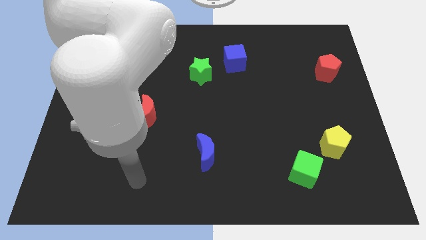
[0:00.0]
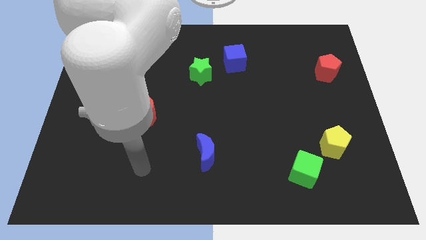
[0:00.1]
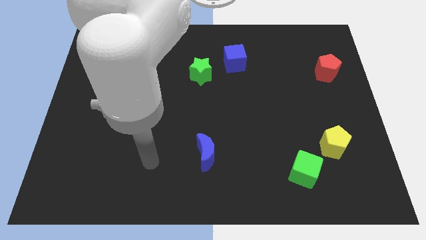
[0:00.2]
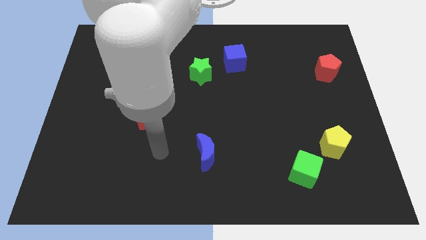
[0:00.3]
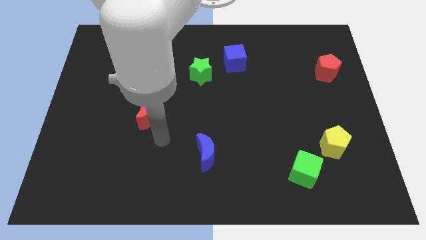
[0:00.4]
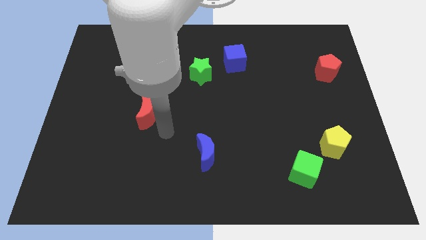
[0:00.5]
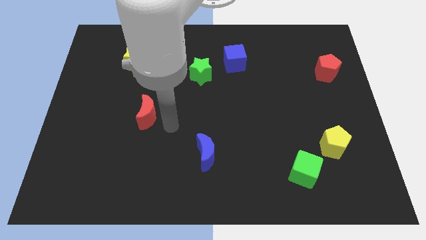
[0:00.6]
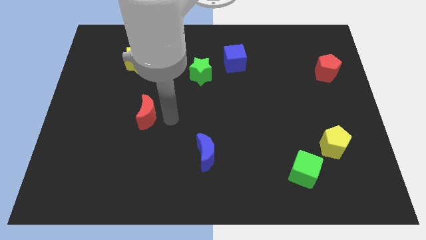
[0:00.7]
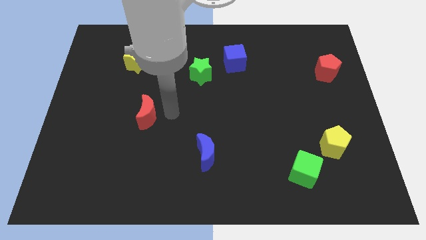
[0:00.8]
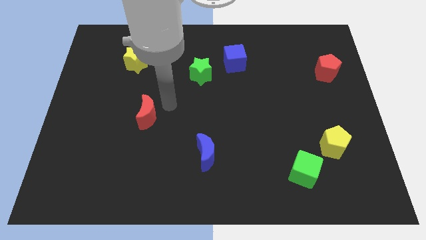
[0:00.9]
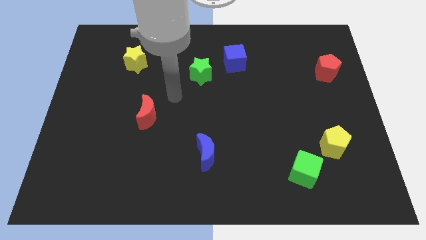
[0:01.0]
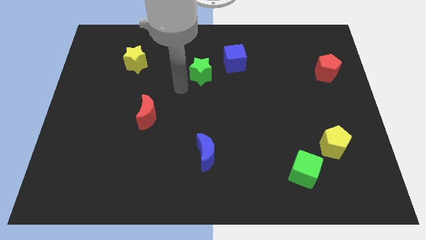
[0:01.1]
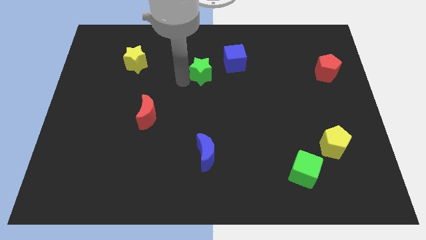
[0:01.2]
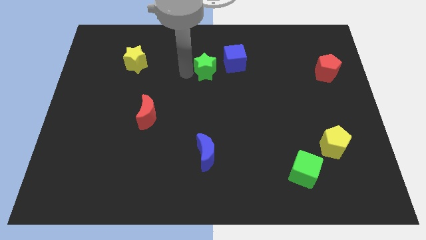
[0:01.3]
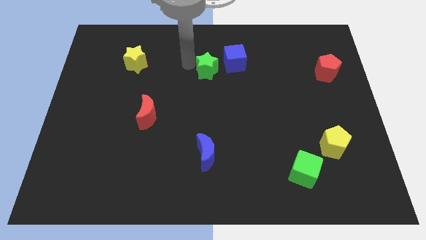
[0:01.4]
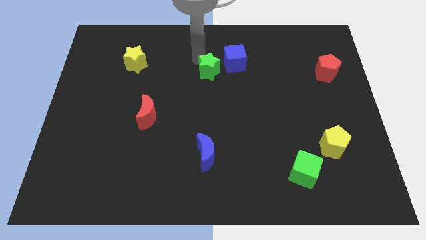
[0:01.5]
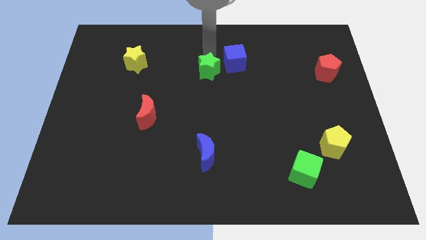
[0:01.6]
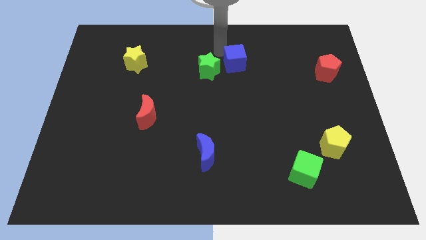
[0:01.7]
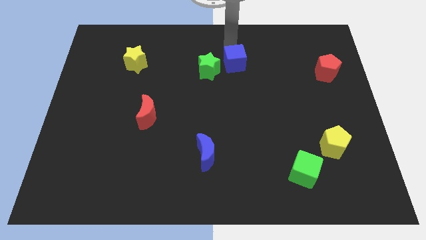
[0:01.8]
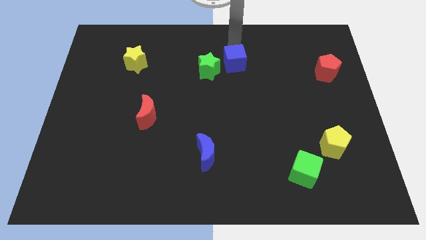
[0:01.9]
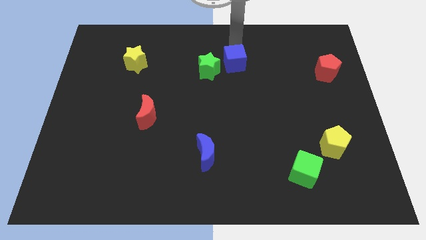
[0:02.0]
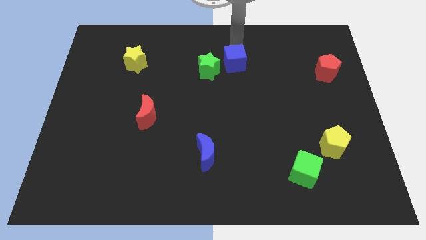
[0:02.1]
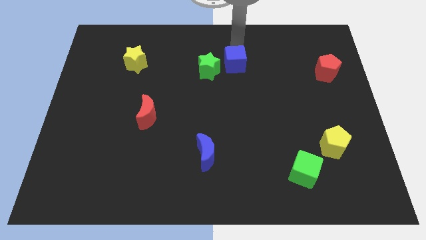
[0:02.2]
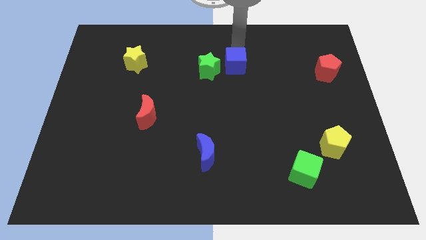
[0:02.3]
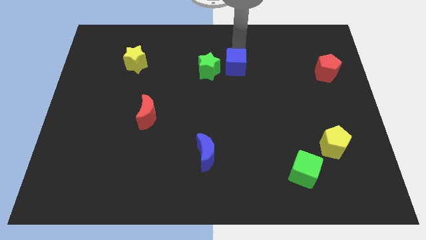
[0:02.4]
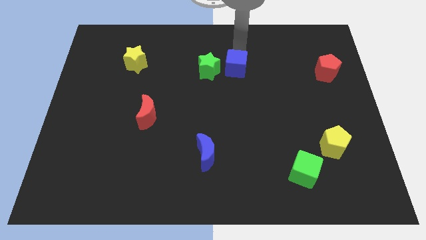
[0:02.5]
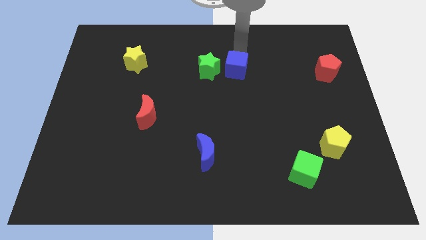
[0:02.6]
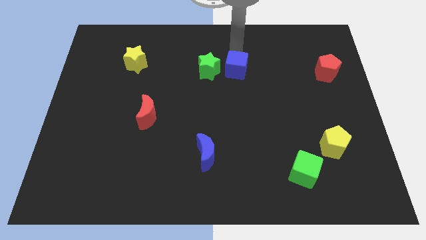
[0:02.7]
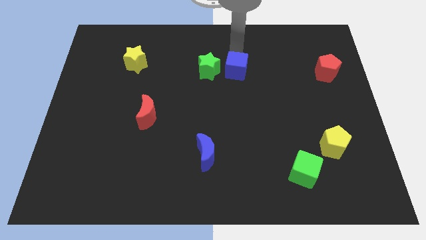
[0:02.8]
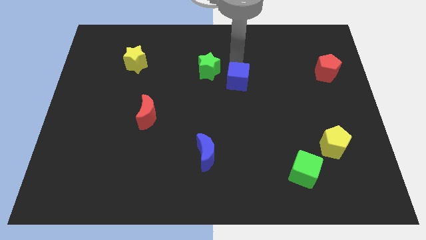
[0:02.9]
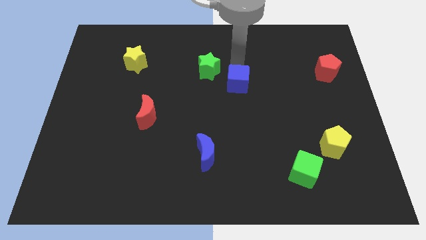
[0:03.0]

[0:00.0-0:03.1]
slightly move the blue cube down

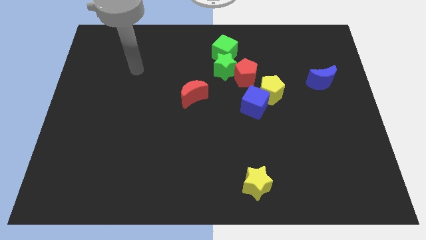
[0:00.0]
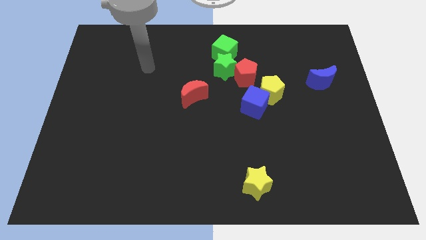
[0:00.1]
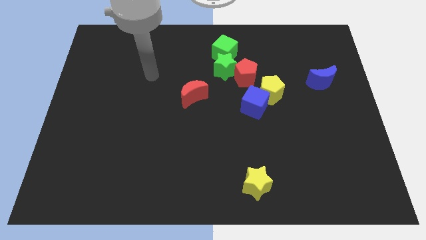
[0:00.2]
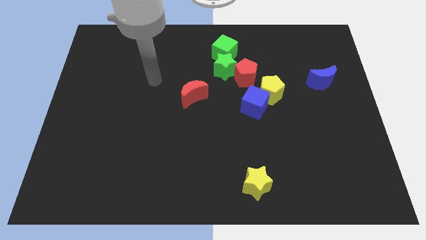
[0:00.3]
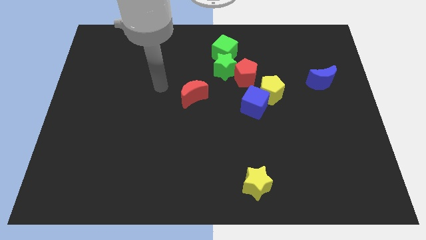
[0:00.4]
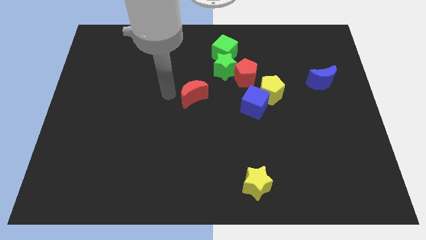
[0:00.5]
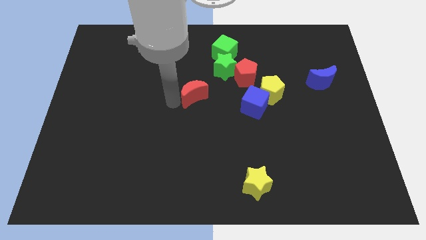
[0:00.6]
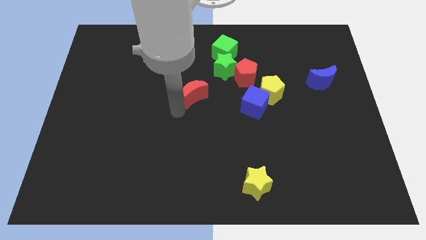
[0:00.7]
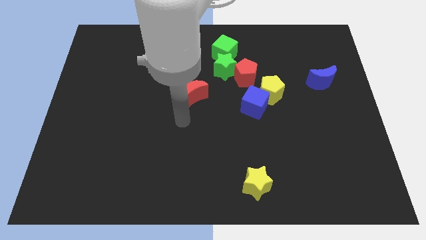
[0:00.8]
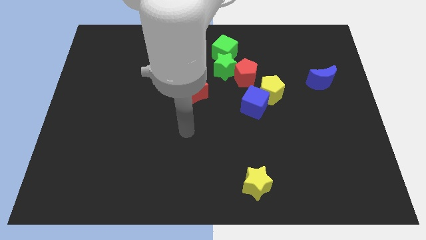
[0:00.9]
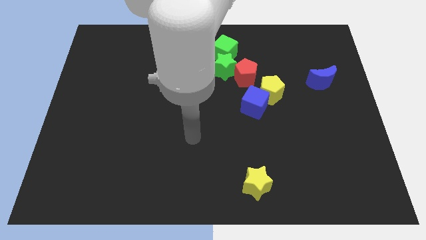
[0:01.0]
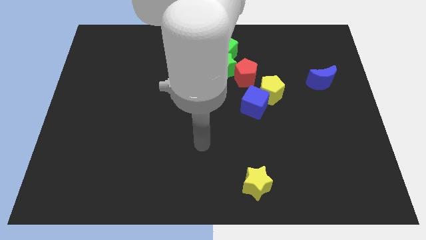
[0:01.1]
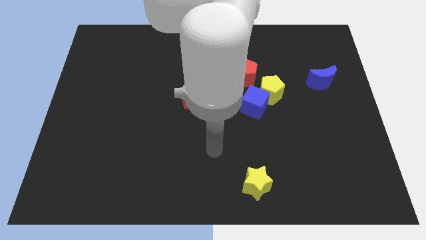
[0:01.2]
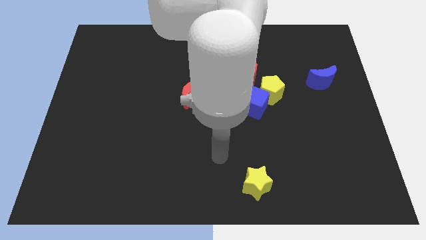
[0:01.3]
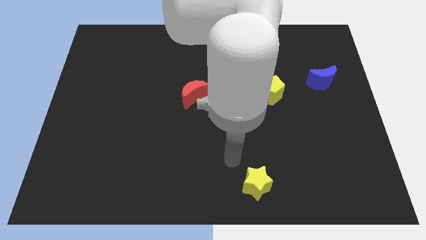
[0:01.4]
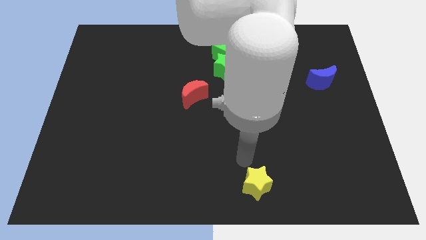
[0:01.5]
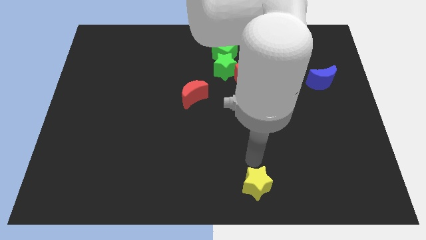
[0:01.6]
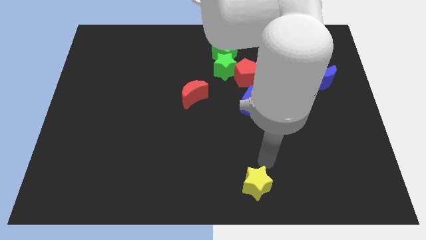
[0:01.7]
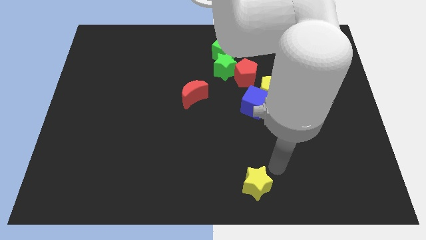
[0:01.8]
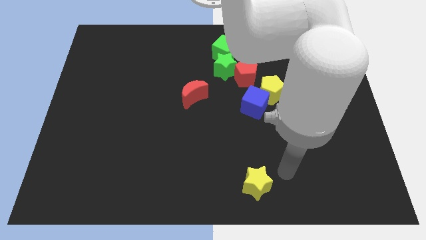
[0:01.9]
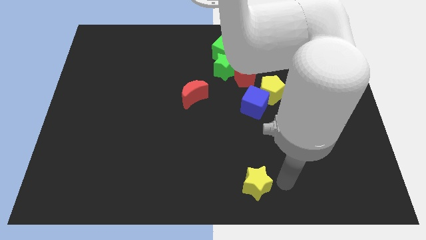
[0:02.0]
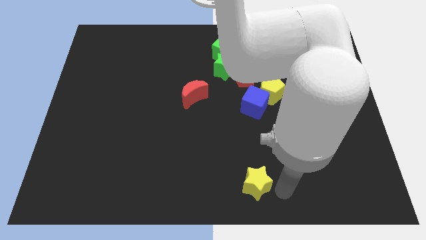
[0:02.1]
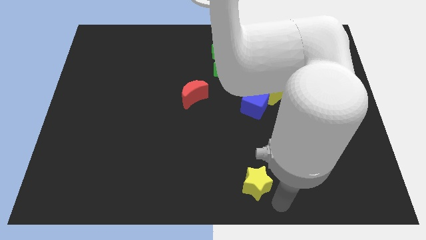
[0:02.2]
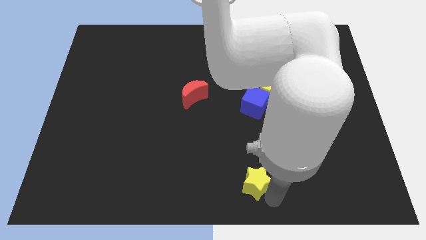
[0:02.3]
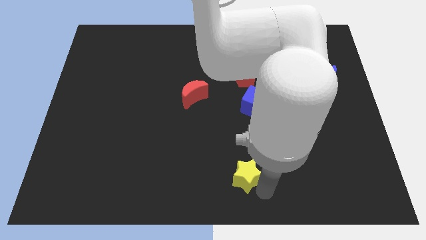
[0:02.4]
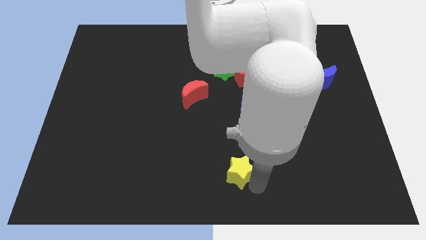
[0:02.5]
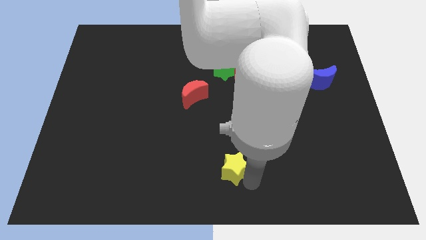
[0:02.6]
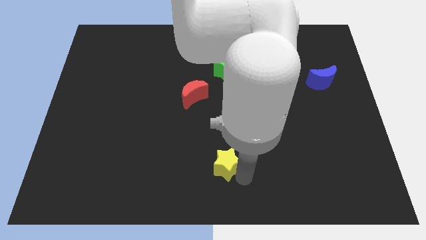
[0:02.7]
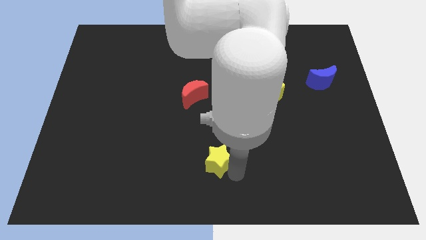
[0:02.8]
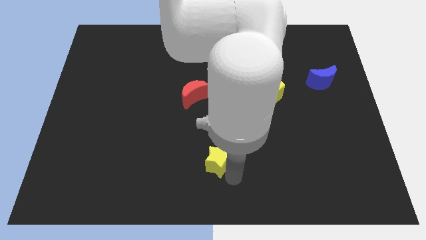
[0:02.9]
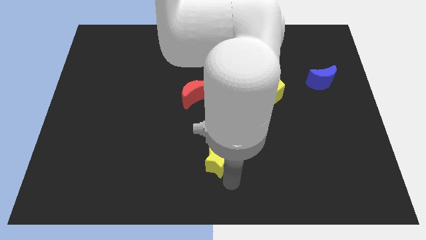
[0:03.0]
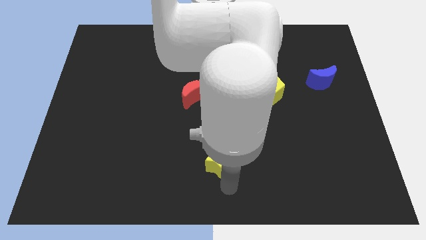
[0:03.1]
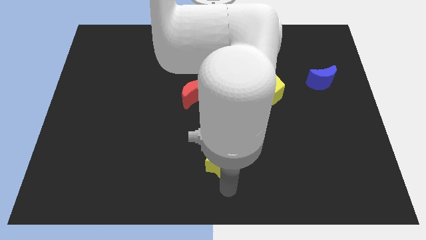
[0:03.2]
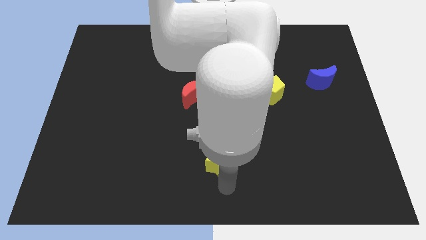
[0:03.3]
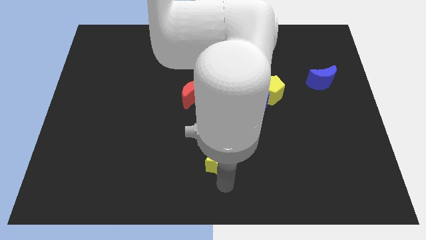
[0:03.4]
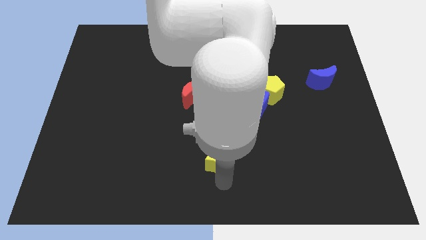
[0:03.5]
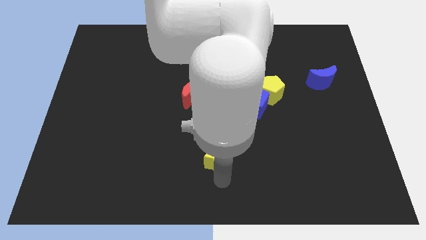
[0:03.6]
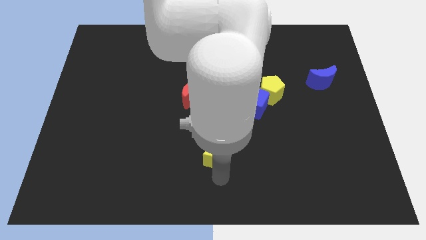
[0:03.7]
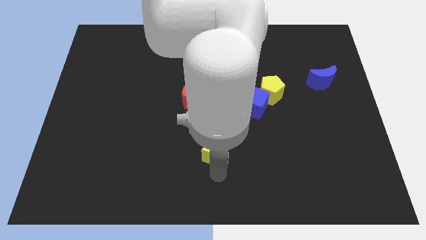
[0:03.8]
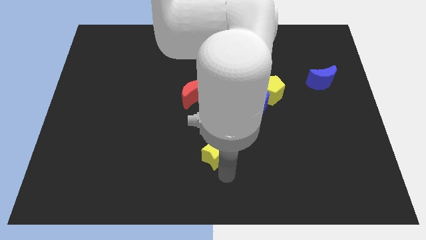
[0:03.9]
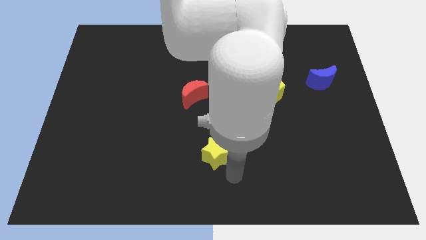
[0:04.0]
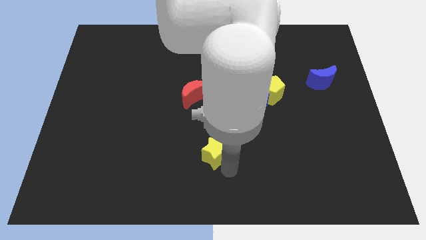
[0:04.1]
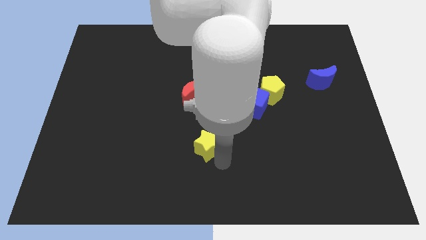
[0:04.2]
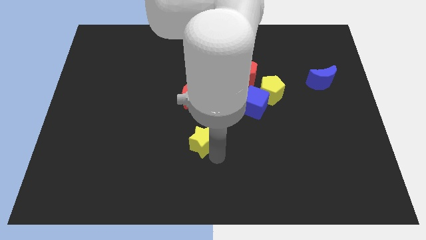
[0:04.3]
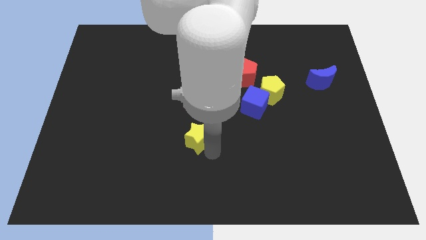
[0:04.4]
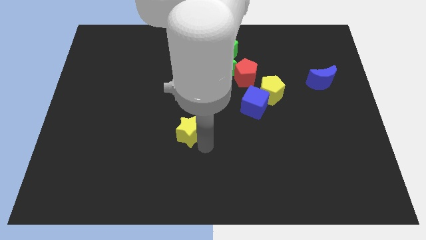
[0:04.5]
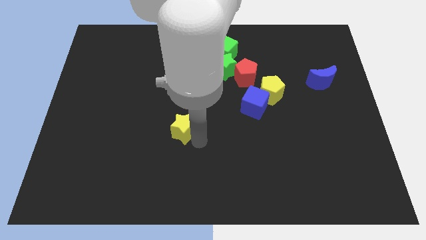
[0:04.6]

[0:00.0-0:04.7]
push the yellow star diagonally up and to the left
